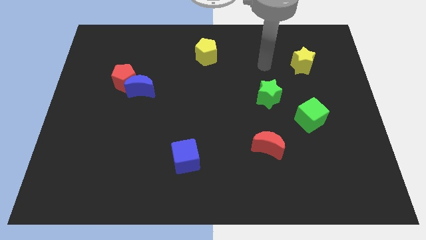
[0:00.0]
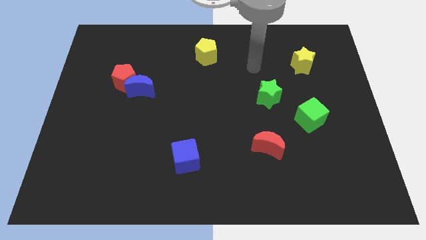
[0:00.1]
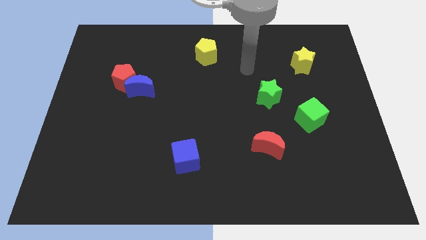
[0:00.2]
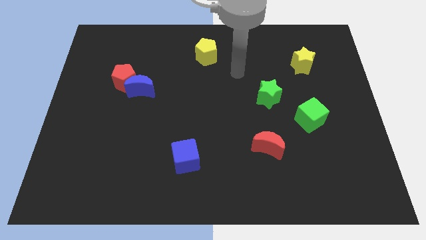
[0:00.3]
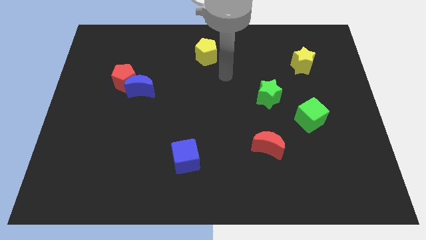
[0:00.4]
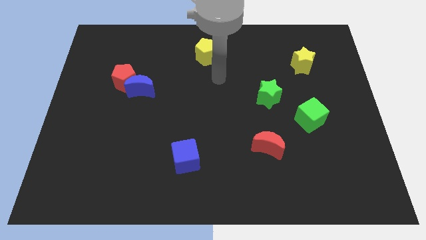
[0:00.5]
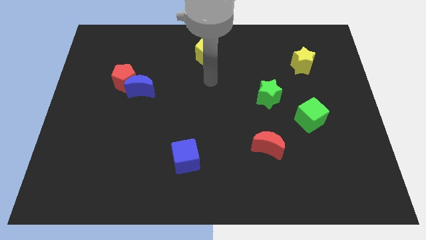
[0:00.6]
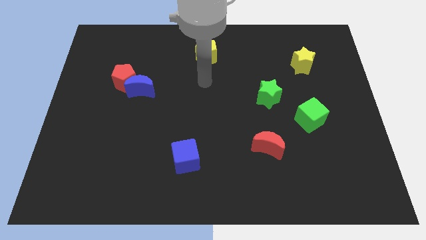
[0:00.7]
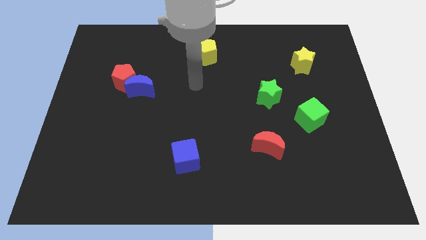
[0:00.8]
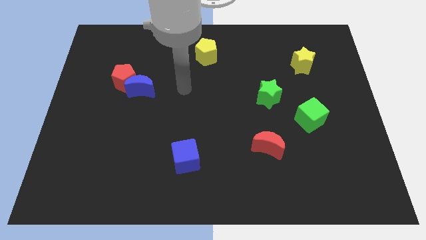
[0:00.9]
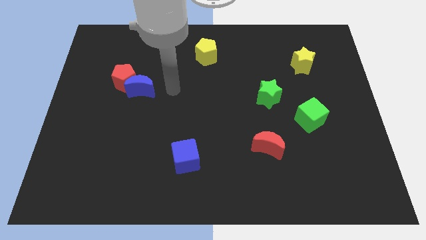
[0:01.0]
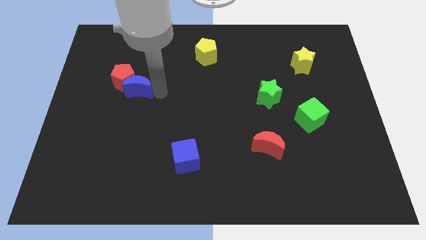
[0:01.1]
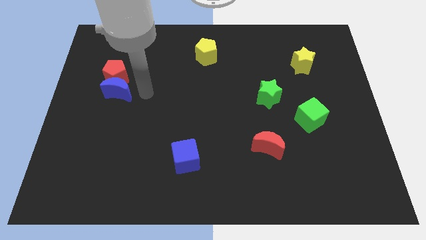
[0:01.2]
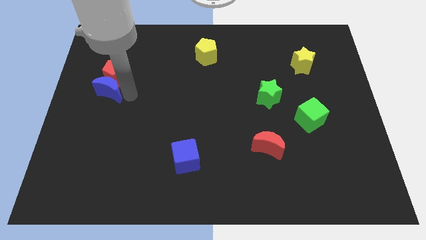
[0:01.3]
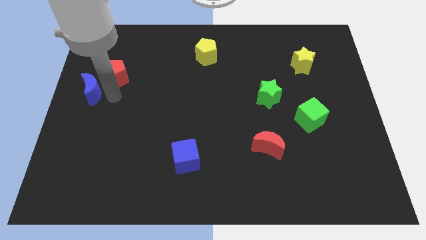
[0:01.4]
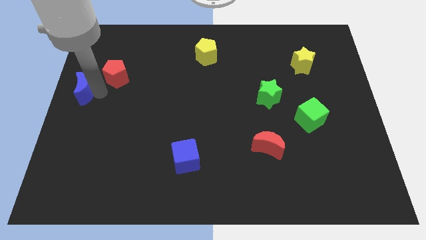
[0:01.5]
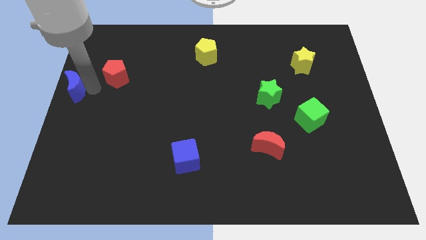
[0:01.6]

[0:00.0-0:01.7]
separate the red pentagon from the blue moon

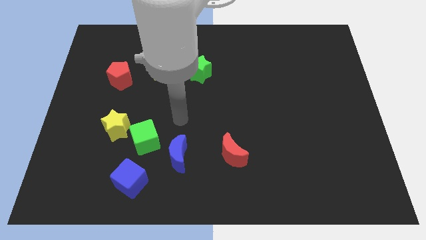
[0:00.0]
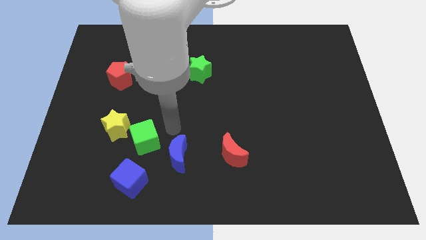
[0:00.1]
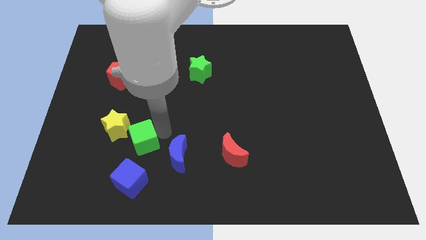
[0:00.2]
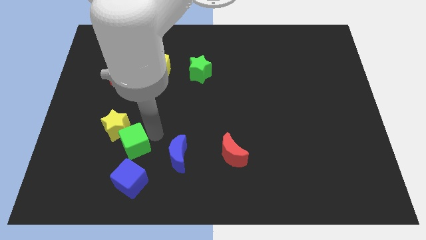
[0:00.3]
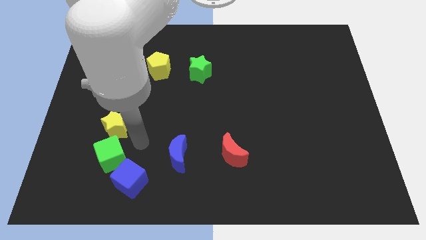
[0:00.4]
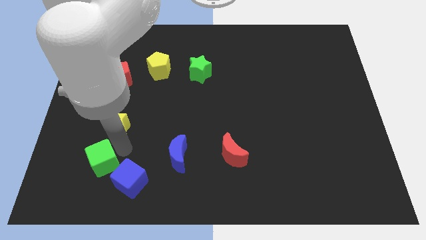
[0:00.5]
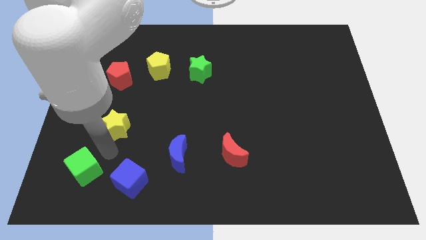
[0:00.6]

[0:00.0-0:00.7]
separate the yellow star from the green cube

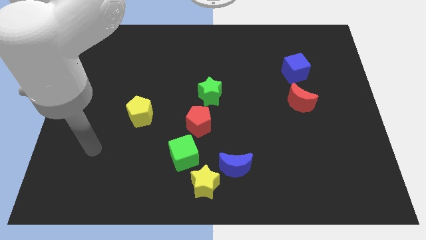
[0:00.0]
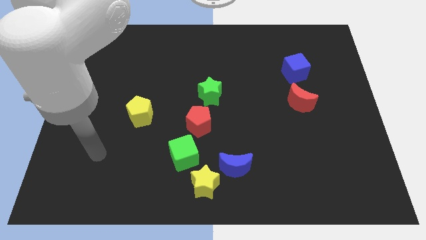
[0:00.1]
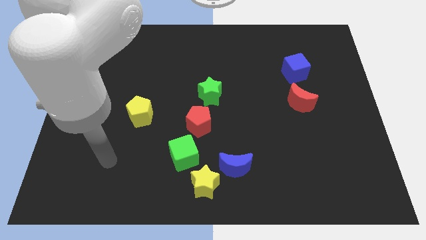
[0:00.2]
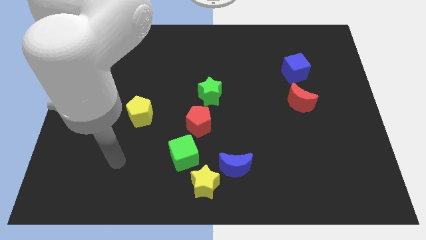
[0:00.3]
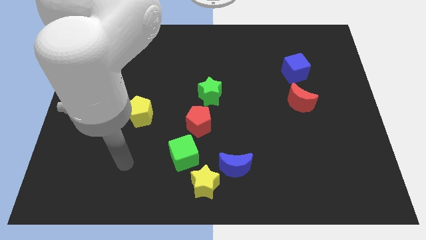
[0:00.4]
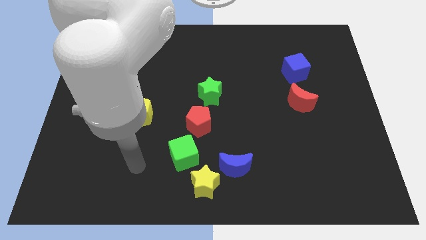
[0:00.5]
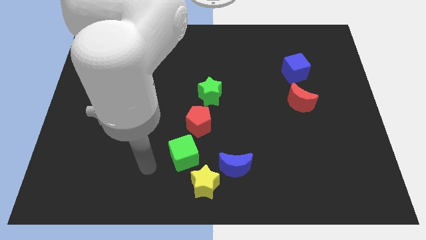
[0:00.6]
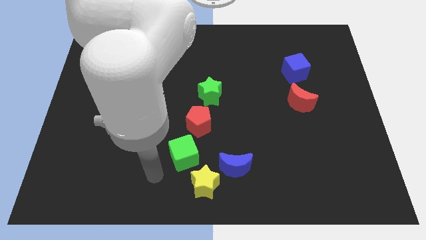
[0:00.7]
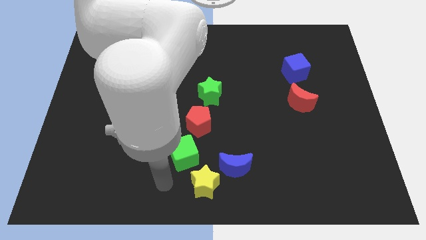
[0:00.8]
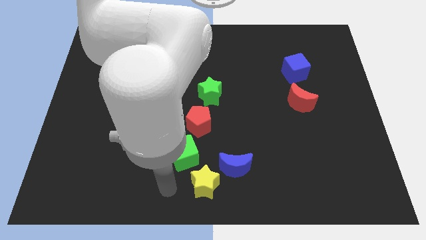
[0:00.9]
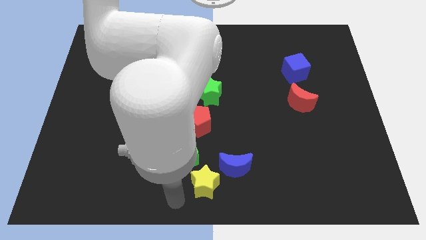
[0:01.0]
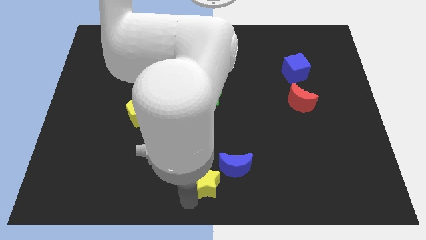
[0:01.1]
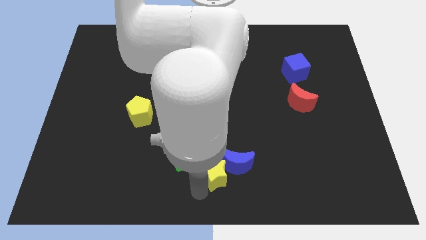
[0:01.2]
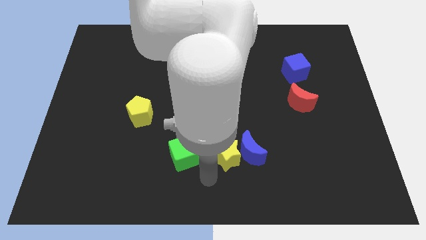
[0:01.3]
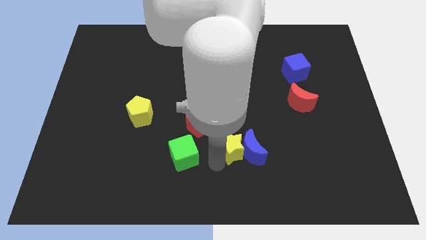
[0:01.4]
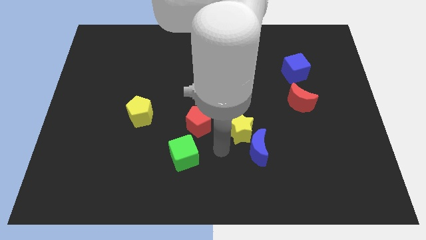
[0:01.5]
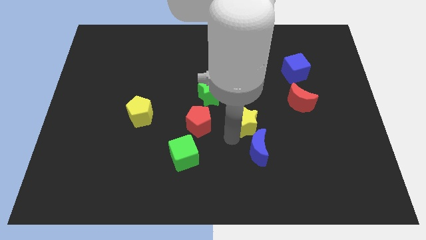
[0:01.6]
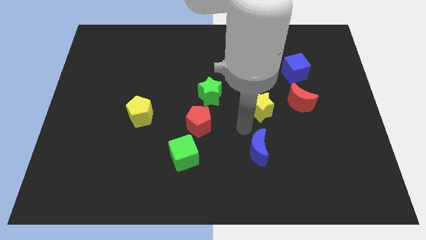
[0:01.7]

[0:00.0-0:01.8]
move the blue moon away from the yellow star

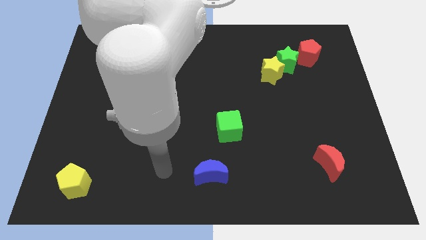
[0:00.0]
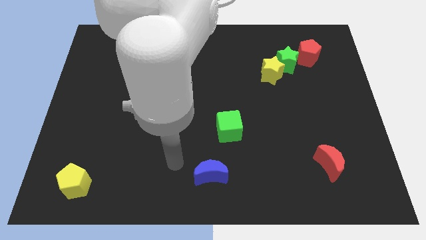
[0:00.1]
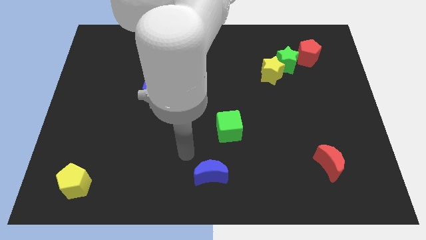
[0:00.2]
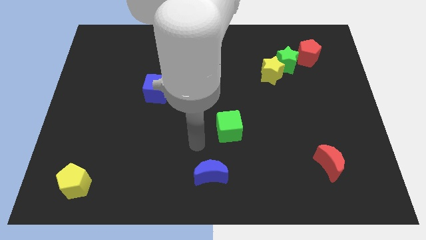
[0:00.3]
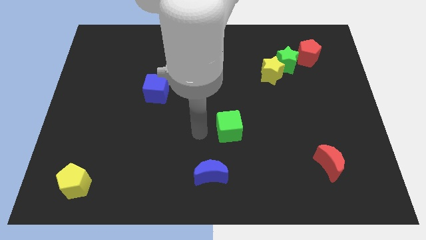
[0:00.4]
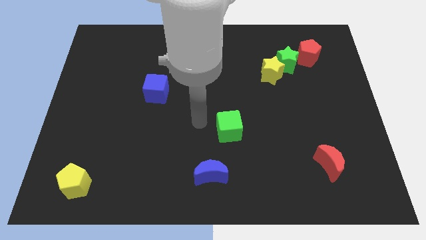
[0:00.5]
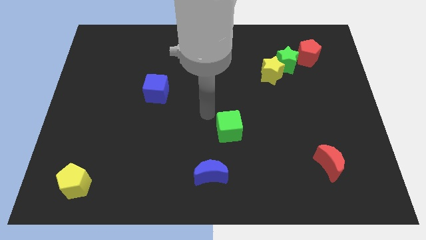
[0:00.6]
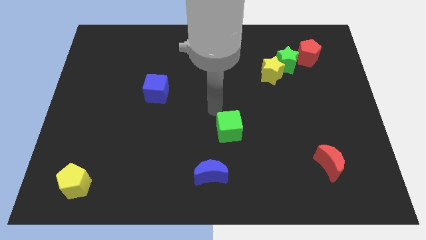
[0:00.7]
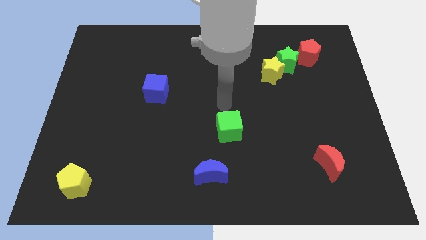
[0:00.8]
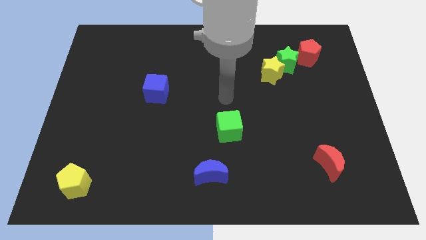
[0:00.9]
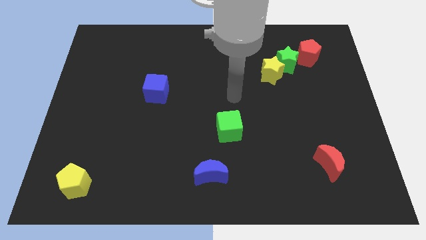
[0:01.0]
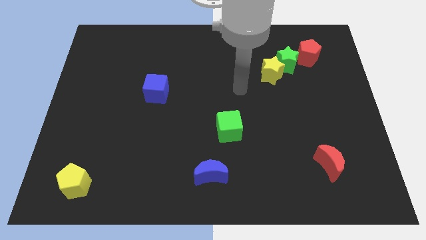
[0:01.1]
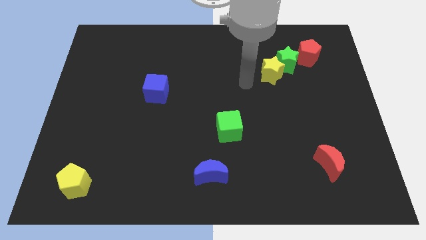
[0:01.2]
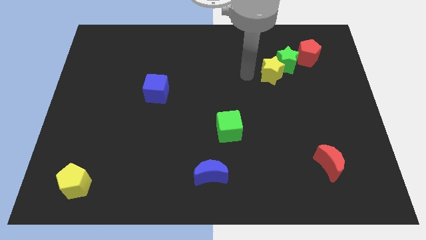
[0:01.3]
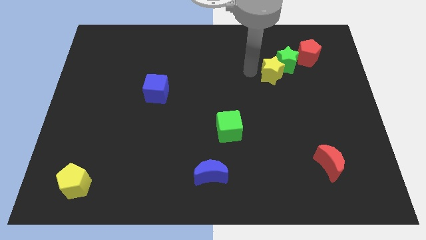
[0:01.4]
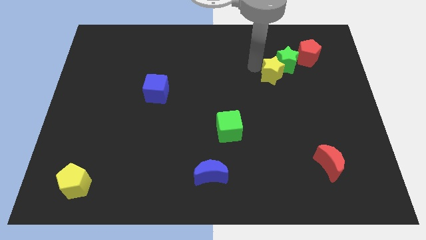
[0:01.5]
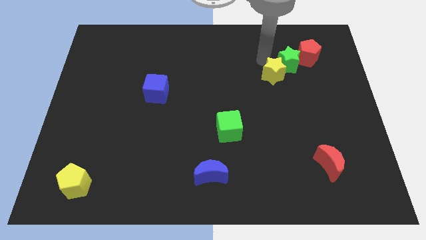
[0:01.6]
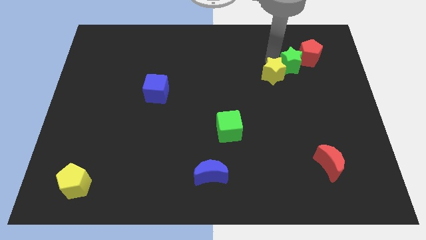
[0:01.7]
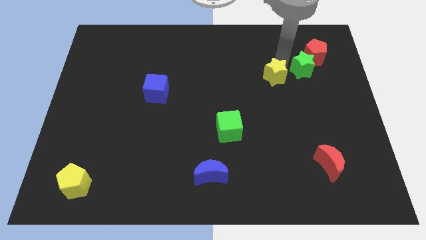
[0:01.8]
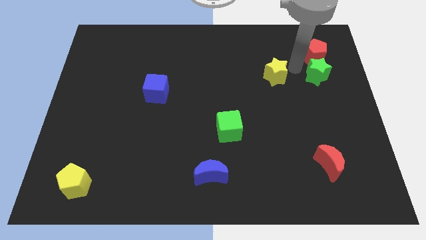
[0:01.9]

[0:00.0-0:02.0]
separate the yellow star from the green star

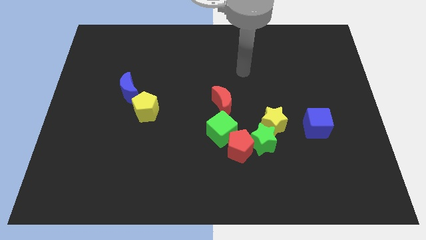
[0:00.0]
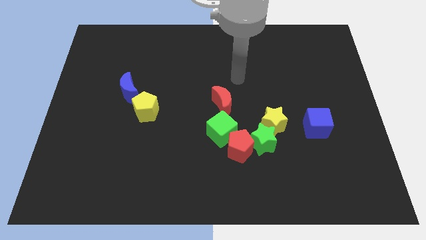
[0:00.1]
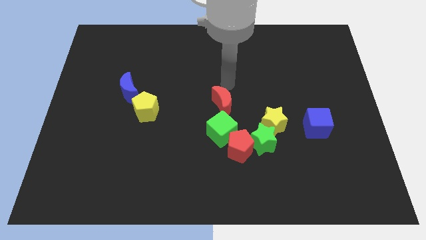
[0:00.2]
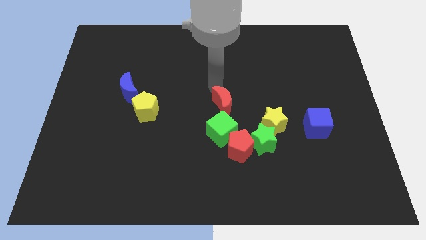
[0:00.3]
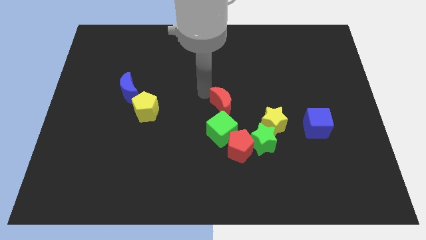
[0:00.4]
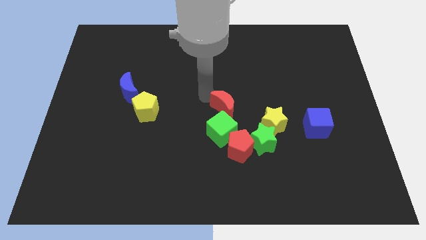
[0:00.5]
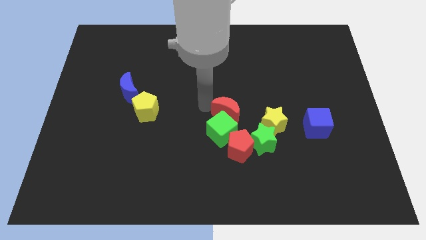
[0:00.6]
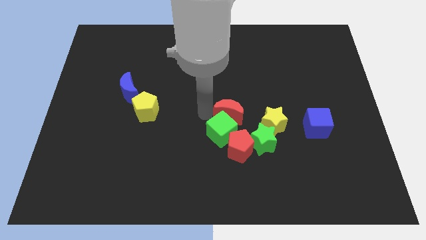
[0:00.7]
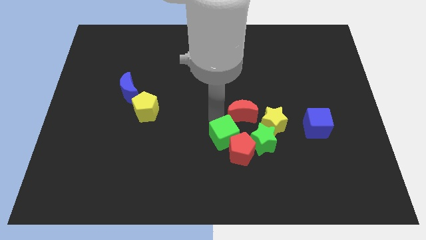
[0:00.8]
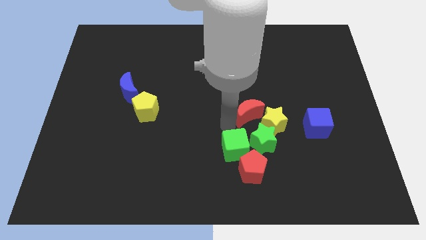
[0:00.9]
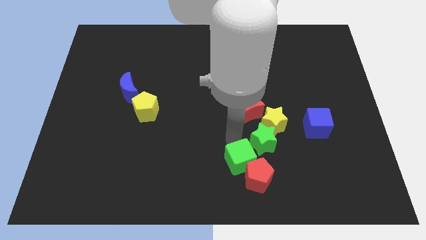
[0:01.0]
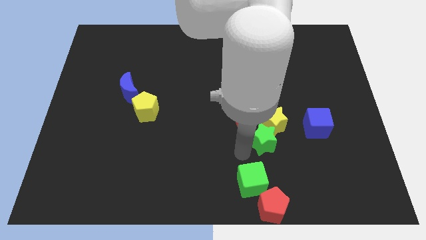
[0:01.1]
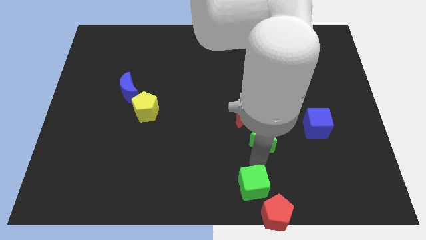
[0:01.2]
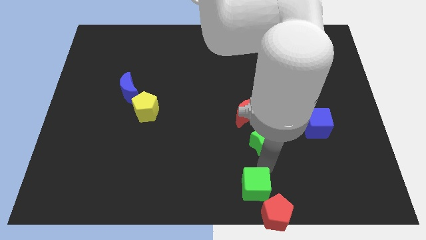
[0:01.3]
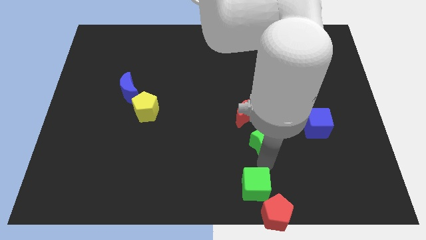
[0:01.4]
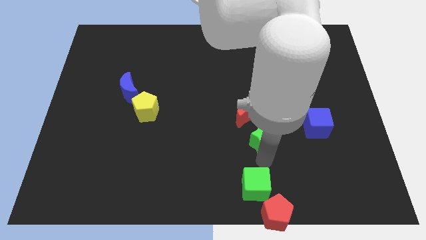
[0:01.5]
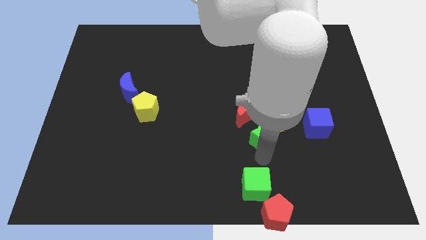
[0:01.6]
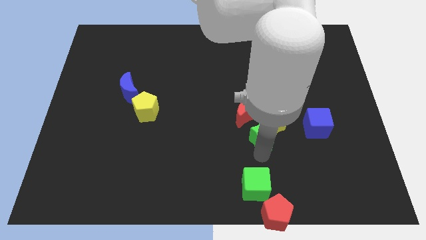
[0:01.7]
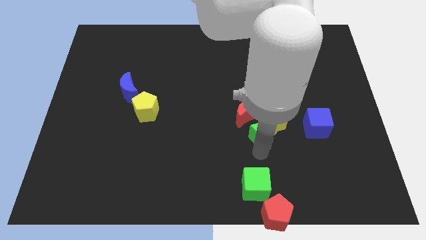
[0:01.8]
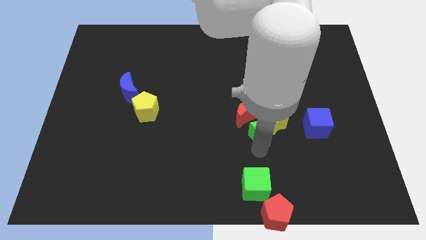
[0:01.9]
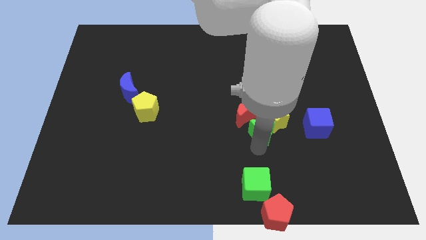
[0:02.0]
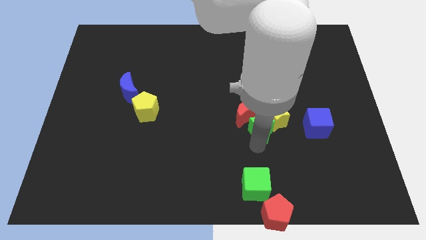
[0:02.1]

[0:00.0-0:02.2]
move the green star away from the clump

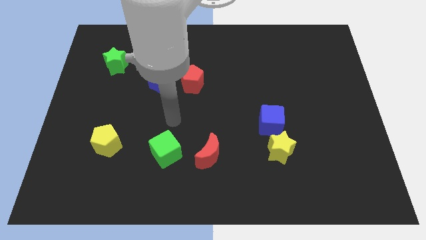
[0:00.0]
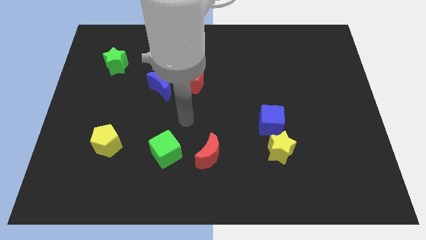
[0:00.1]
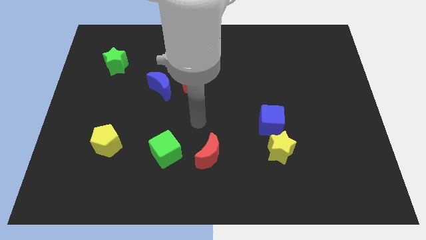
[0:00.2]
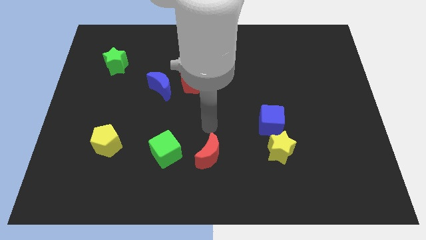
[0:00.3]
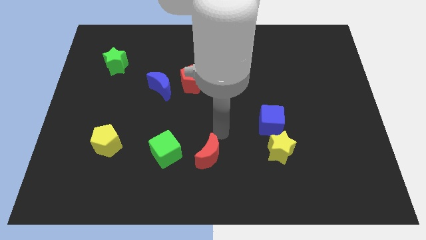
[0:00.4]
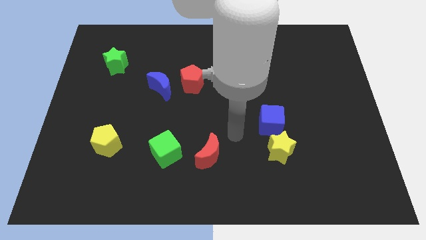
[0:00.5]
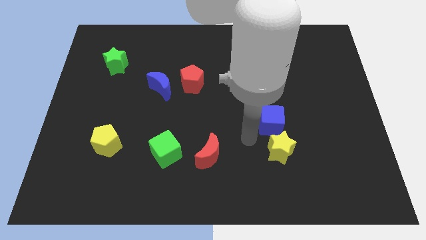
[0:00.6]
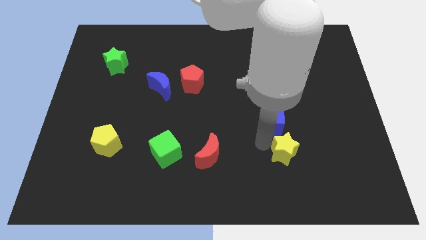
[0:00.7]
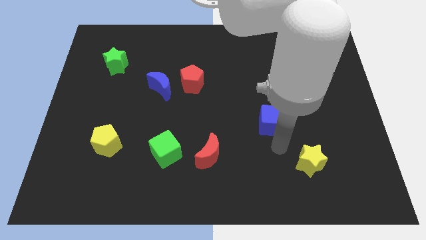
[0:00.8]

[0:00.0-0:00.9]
pull the blue cube apart from the yellow star
